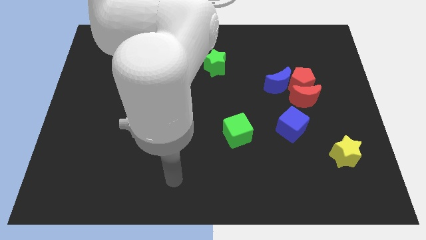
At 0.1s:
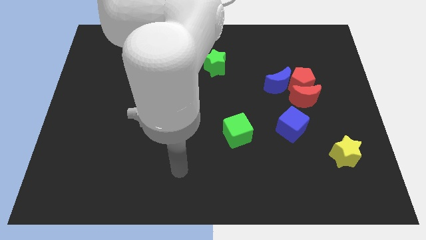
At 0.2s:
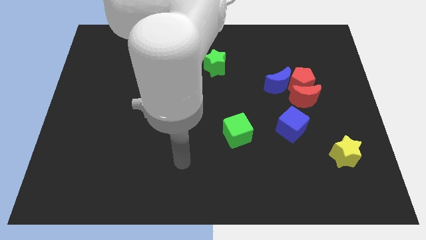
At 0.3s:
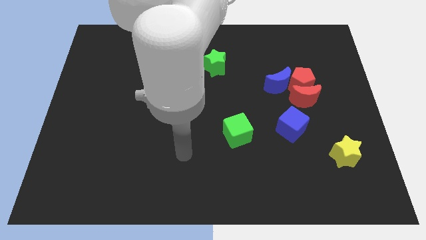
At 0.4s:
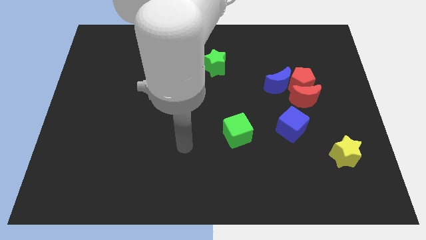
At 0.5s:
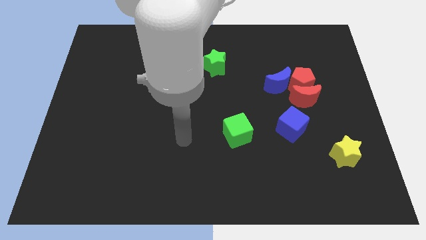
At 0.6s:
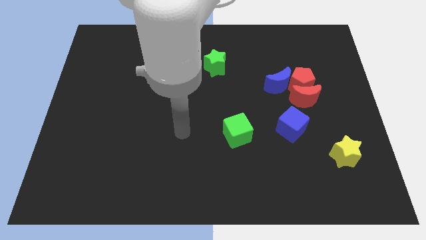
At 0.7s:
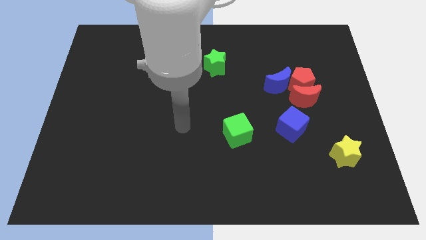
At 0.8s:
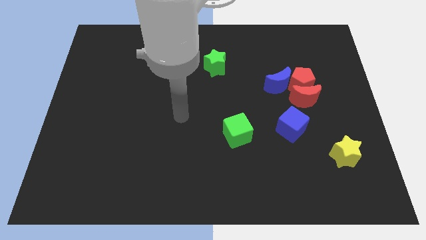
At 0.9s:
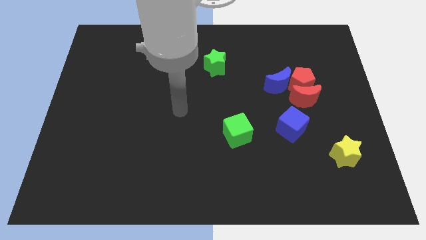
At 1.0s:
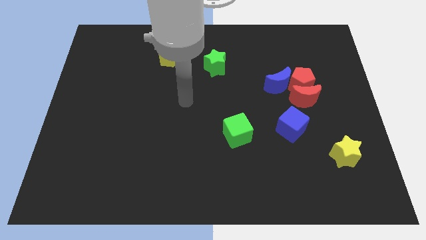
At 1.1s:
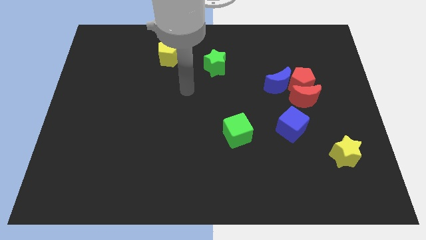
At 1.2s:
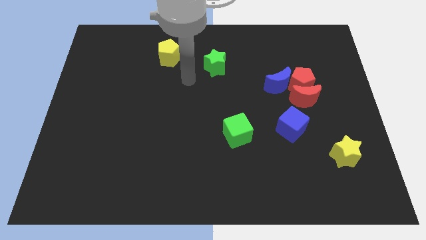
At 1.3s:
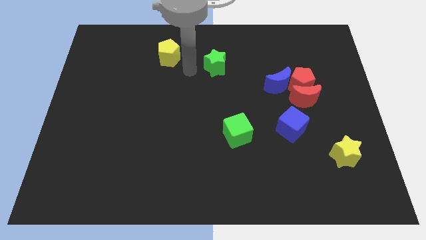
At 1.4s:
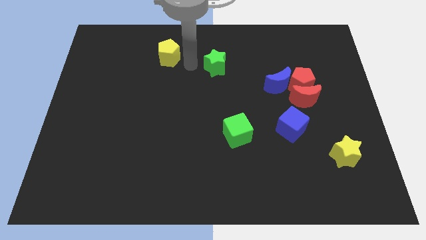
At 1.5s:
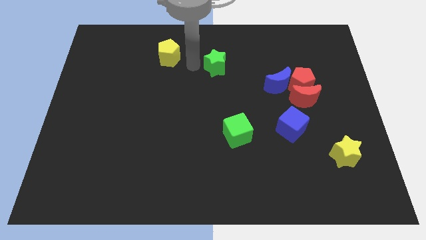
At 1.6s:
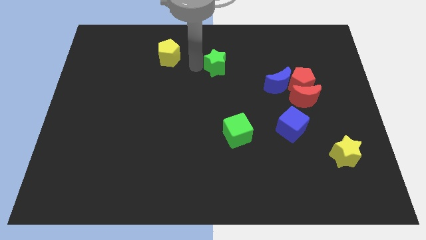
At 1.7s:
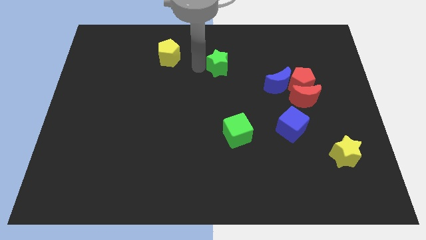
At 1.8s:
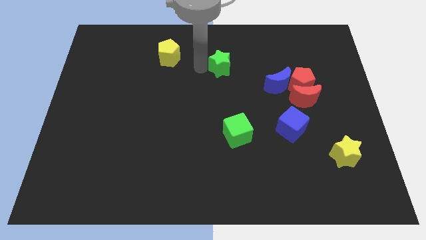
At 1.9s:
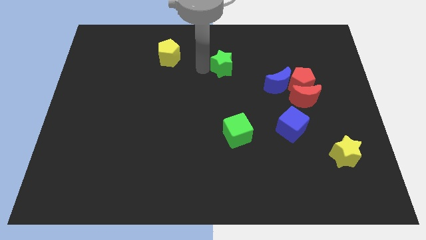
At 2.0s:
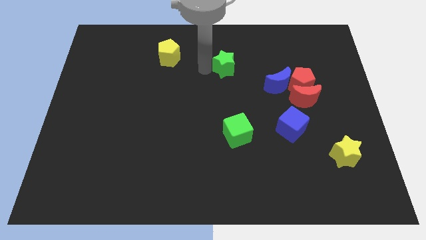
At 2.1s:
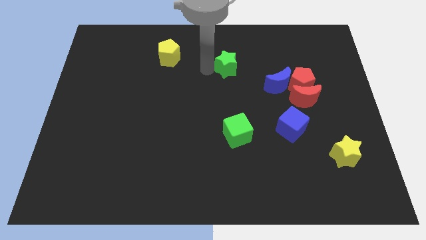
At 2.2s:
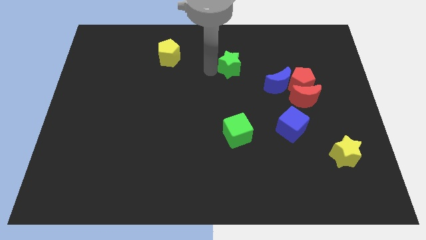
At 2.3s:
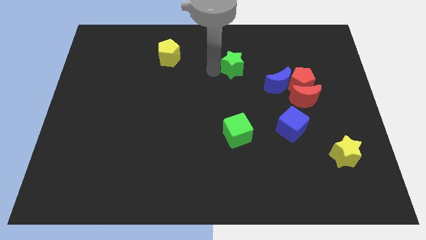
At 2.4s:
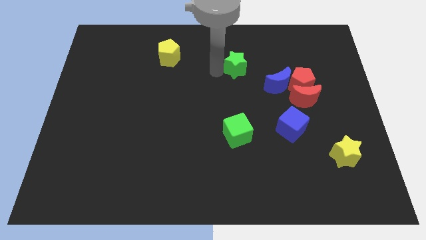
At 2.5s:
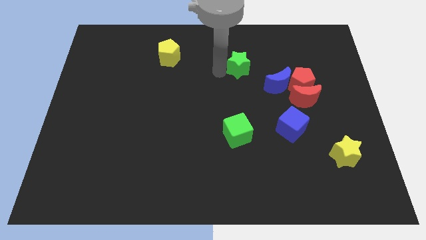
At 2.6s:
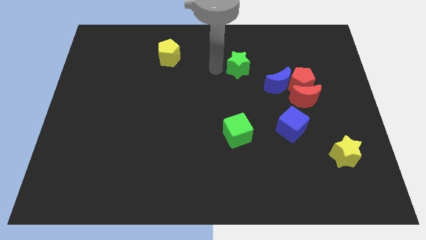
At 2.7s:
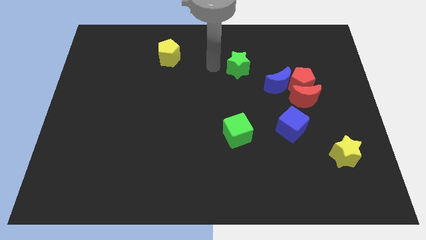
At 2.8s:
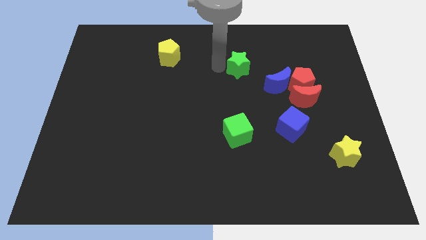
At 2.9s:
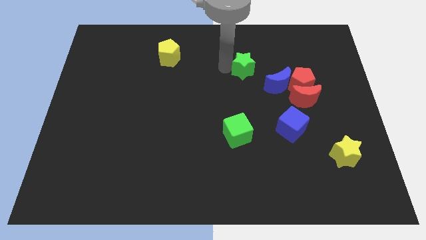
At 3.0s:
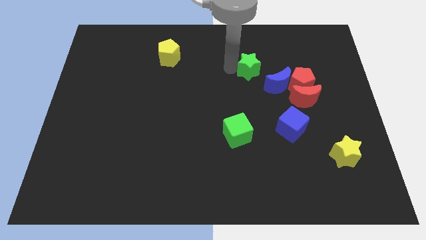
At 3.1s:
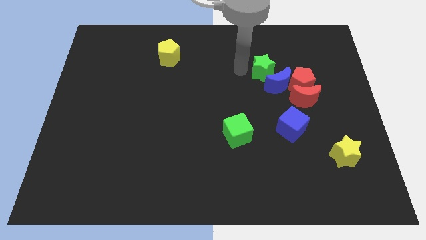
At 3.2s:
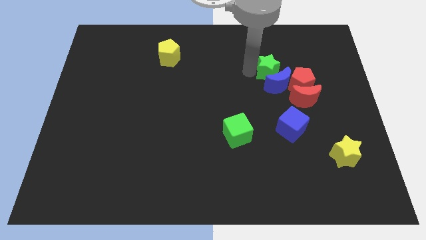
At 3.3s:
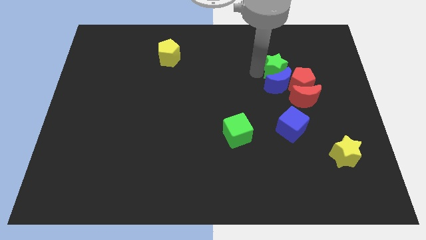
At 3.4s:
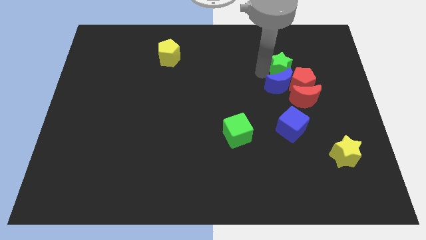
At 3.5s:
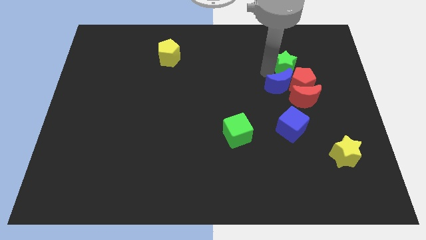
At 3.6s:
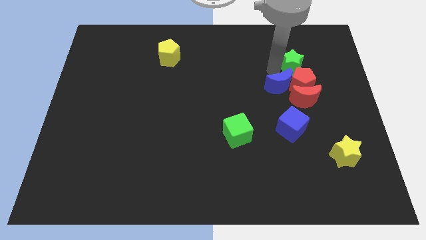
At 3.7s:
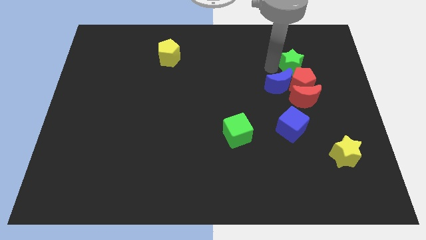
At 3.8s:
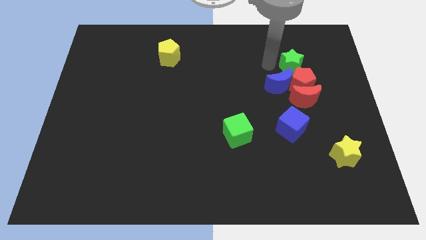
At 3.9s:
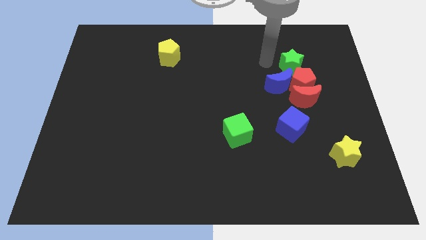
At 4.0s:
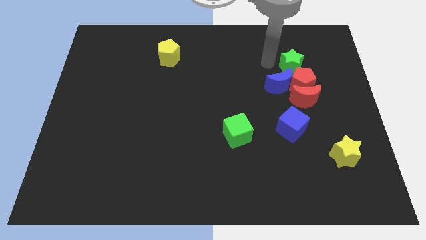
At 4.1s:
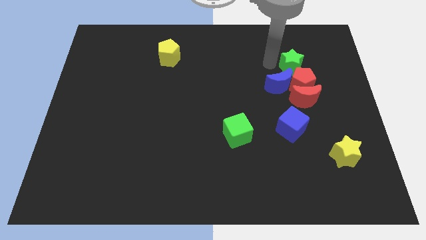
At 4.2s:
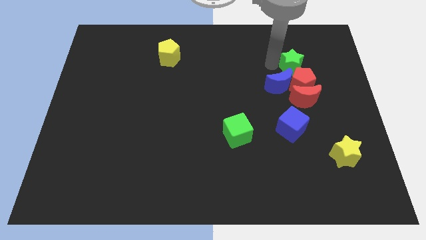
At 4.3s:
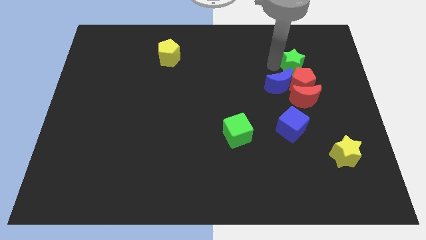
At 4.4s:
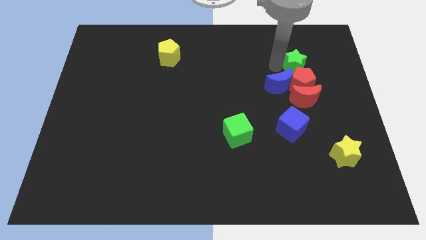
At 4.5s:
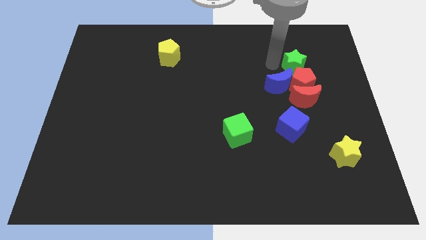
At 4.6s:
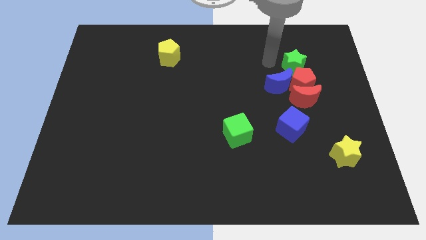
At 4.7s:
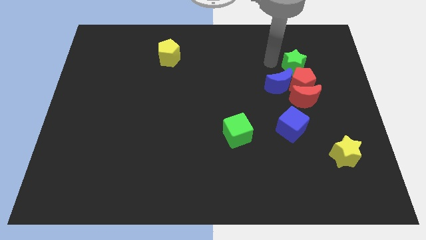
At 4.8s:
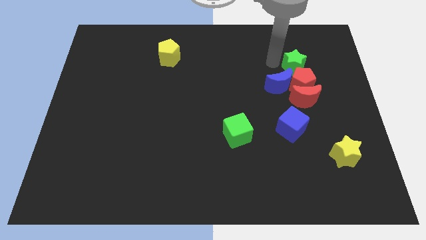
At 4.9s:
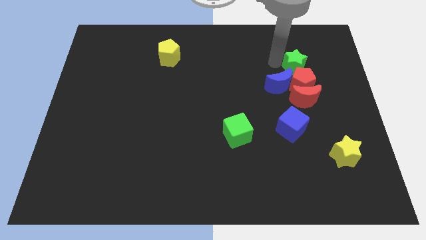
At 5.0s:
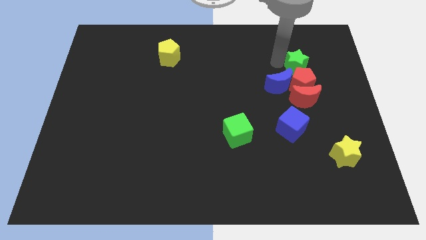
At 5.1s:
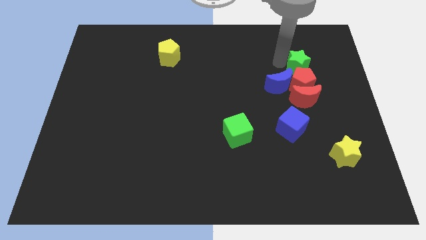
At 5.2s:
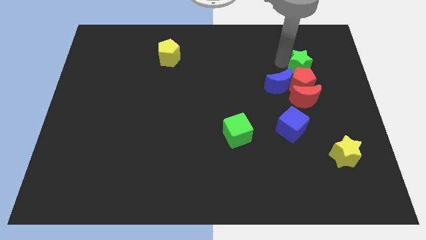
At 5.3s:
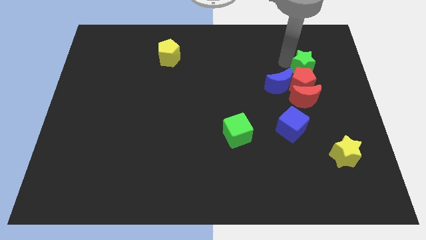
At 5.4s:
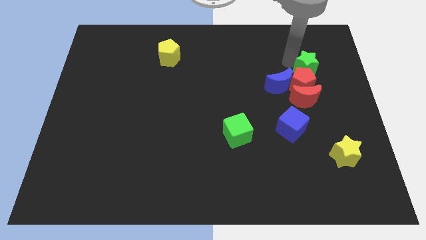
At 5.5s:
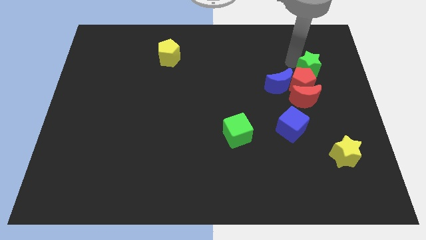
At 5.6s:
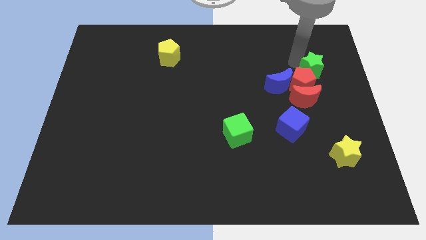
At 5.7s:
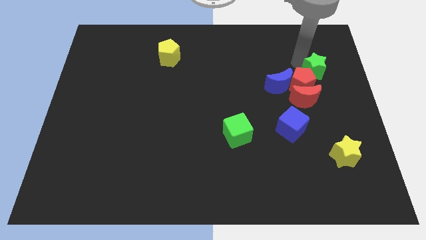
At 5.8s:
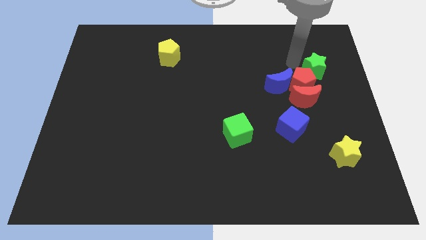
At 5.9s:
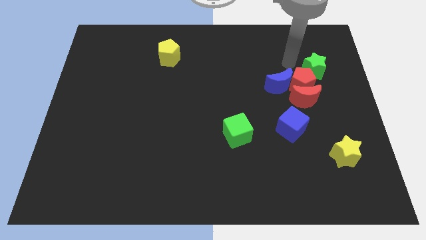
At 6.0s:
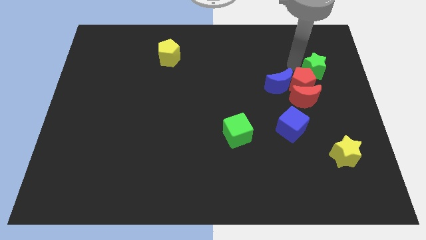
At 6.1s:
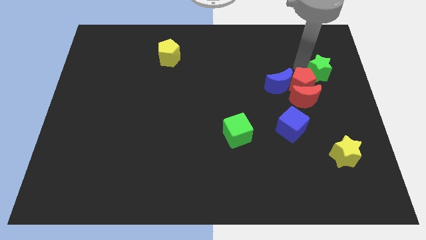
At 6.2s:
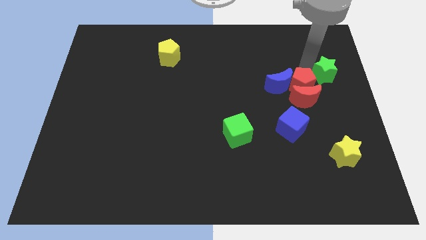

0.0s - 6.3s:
put the green star to the center right
